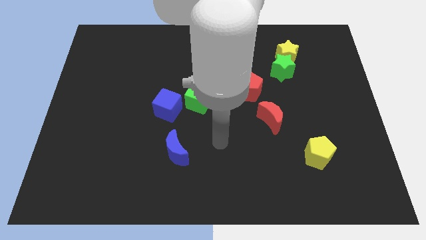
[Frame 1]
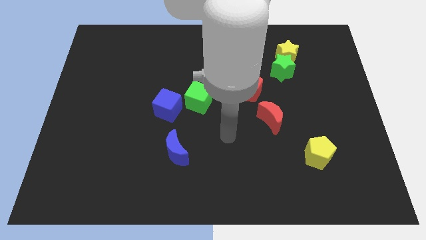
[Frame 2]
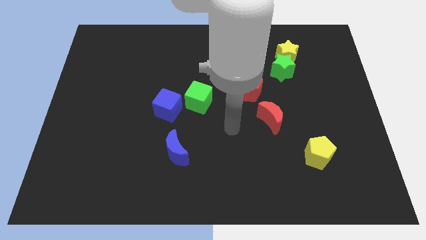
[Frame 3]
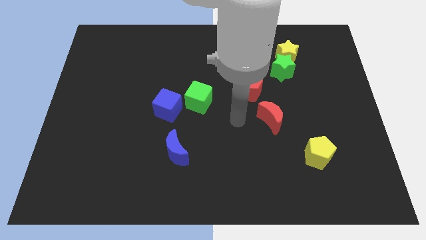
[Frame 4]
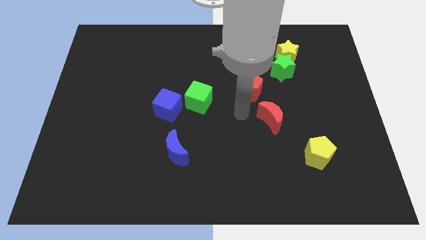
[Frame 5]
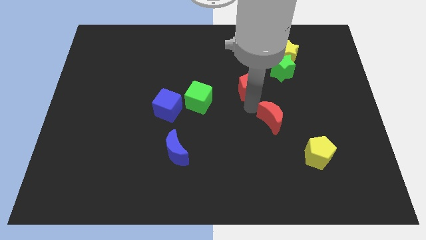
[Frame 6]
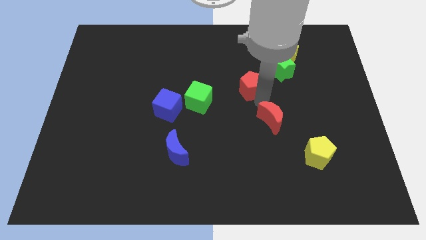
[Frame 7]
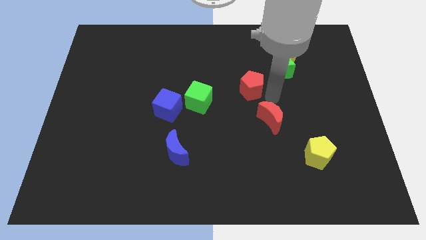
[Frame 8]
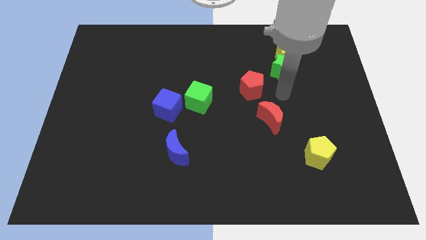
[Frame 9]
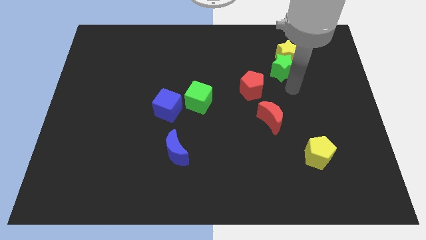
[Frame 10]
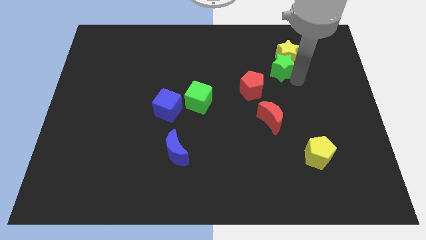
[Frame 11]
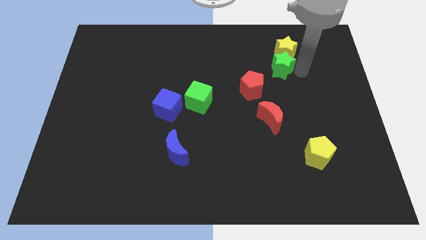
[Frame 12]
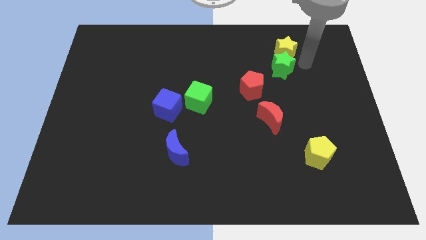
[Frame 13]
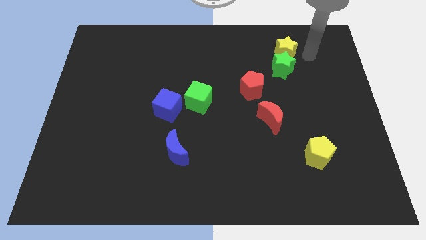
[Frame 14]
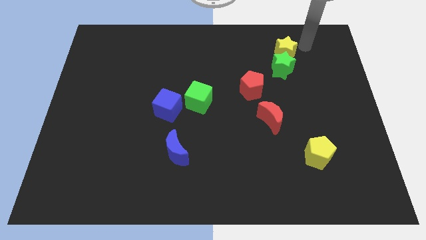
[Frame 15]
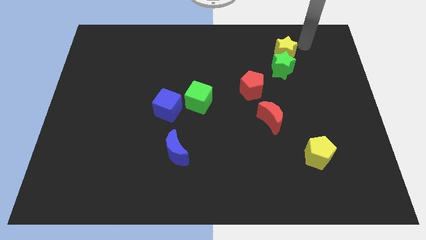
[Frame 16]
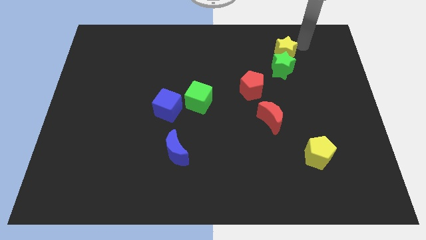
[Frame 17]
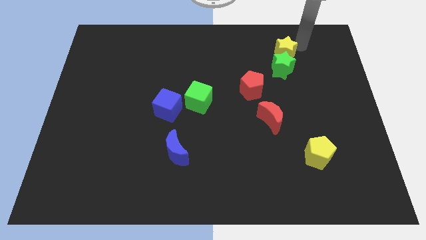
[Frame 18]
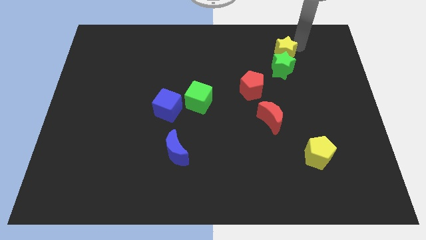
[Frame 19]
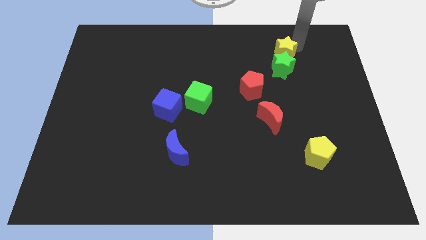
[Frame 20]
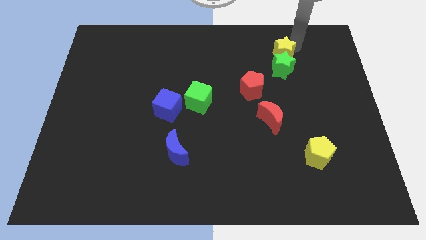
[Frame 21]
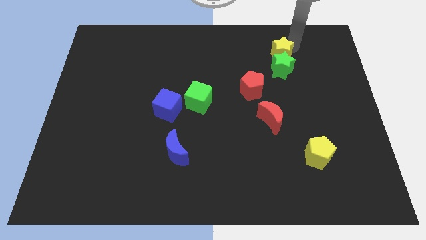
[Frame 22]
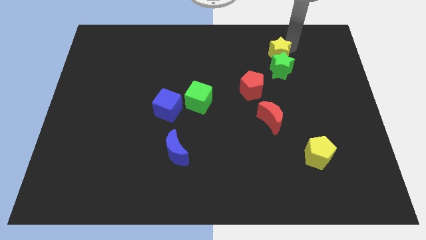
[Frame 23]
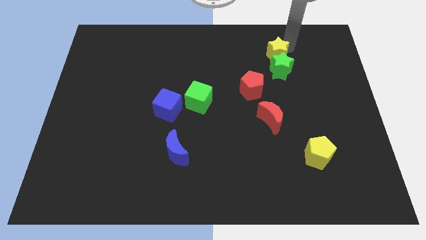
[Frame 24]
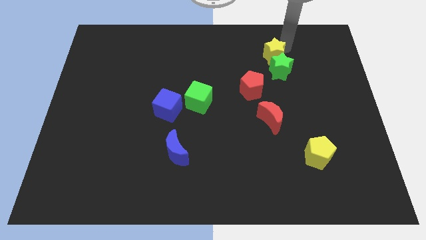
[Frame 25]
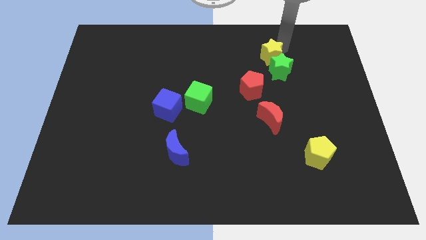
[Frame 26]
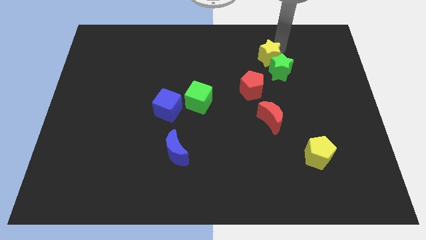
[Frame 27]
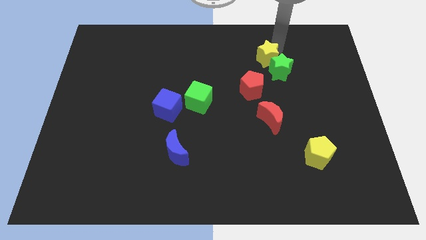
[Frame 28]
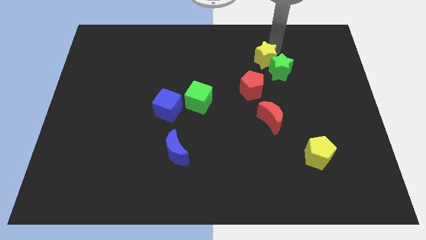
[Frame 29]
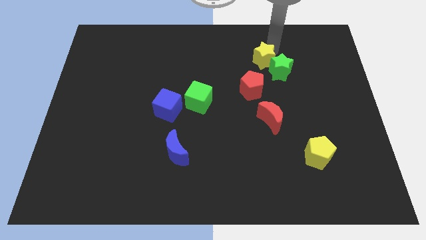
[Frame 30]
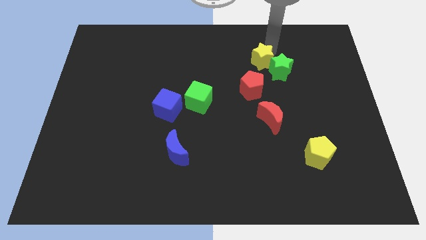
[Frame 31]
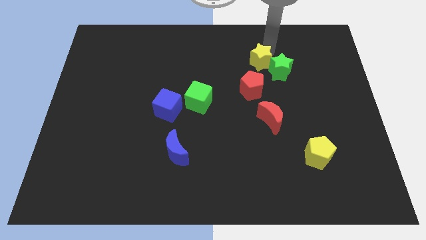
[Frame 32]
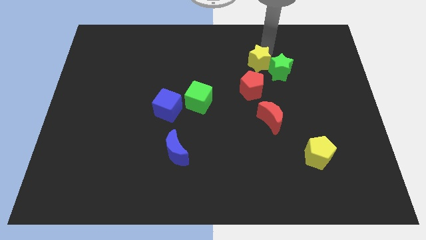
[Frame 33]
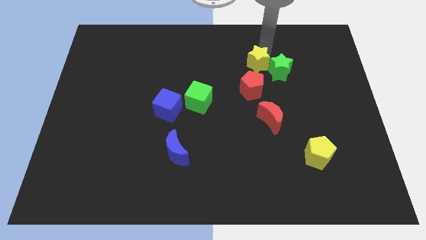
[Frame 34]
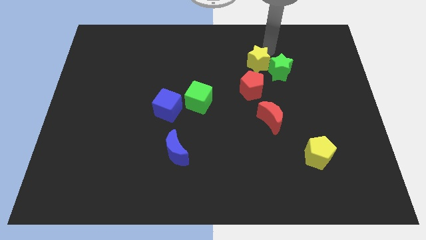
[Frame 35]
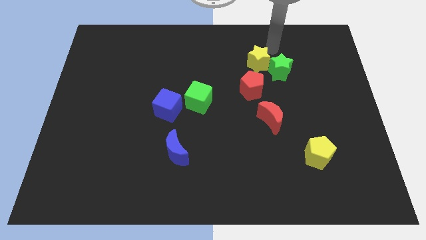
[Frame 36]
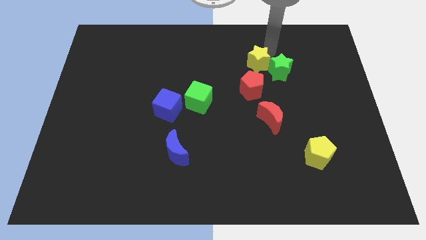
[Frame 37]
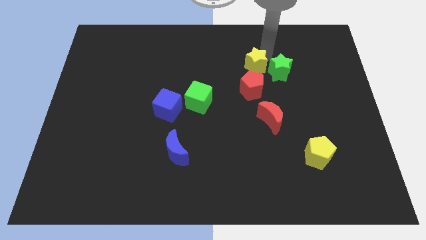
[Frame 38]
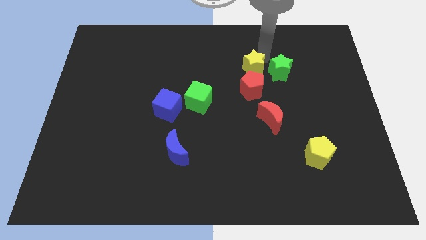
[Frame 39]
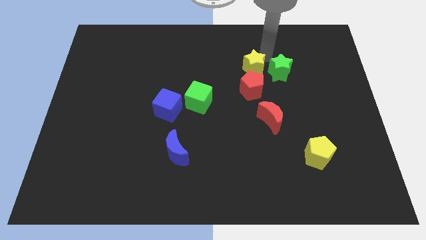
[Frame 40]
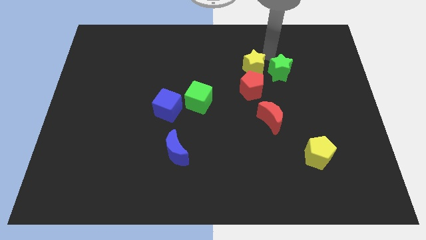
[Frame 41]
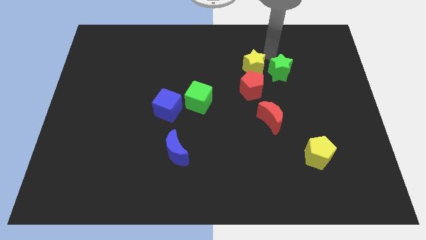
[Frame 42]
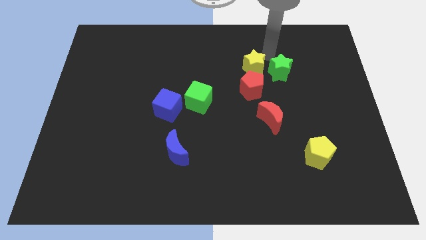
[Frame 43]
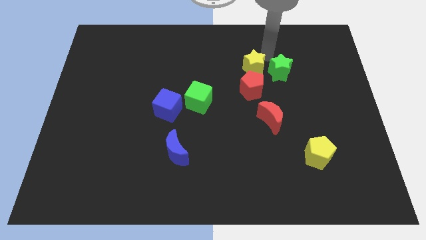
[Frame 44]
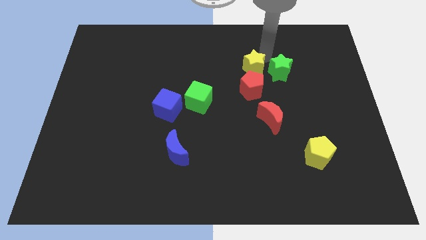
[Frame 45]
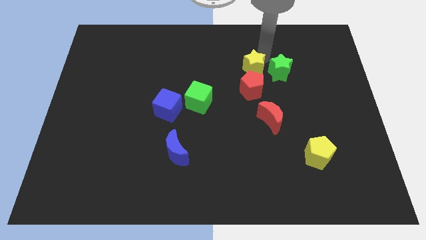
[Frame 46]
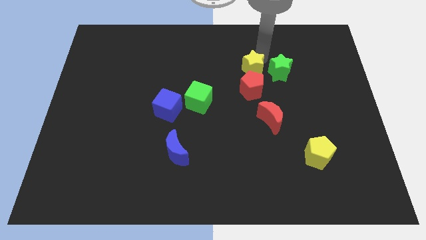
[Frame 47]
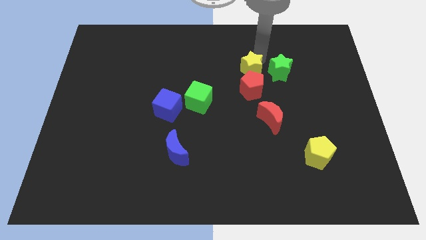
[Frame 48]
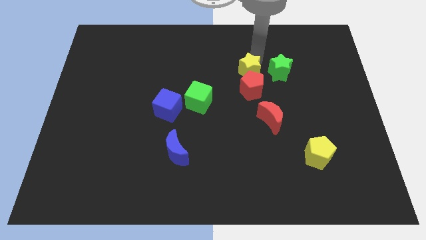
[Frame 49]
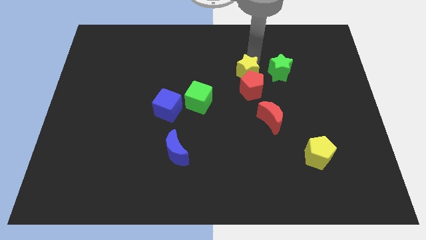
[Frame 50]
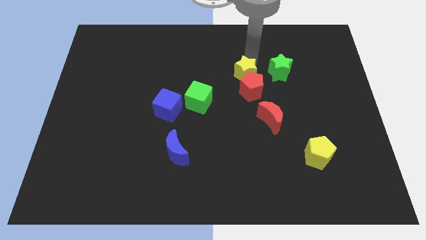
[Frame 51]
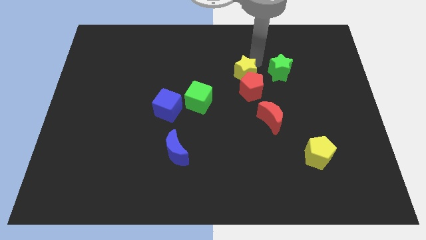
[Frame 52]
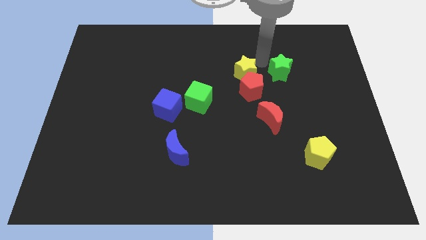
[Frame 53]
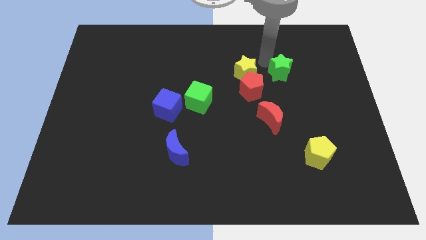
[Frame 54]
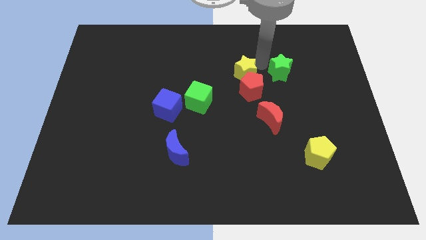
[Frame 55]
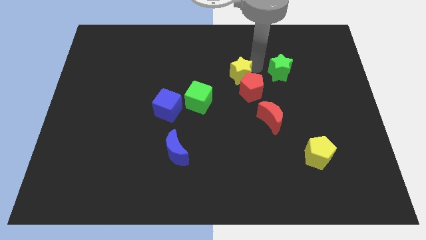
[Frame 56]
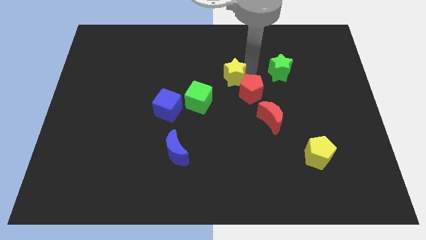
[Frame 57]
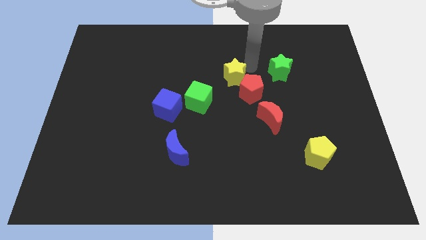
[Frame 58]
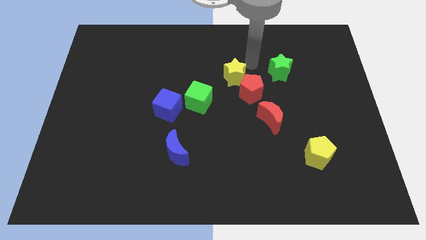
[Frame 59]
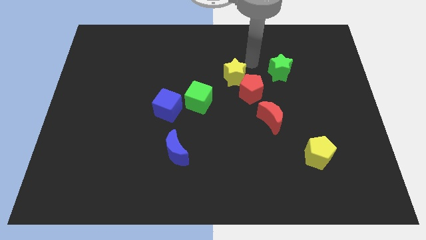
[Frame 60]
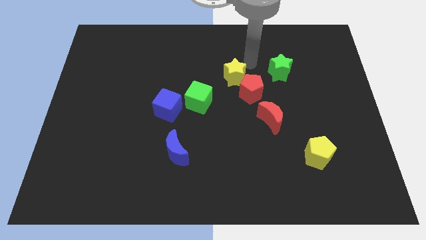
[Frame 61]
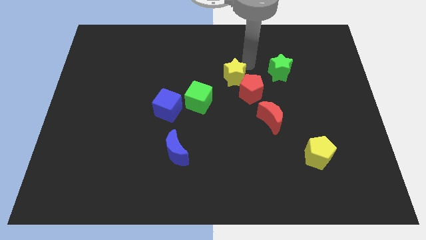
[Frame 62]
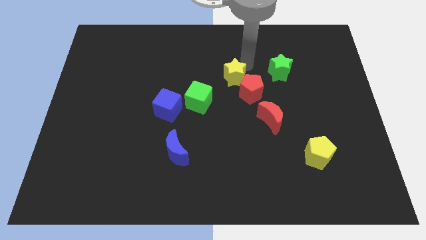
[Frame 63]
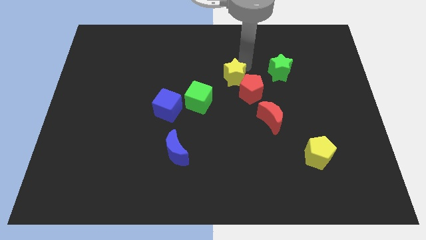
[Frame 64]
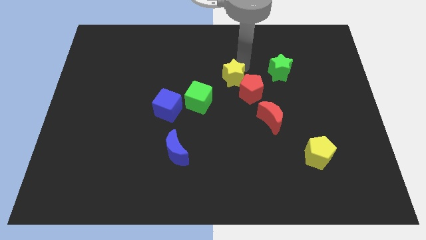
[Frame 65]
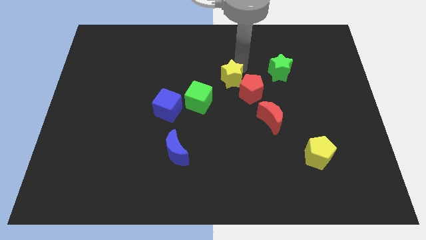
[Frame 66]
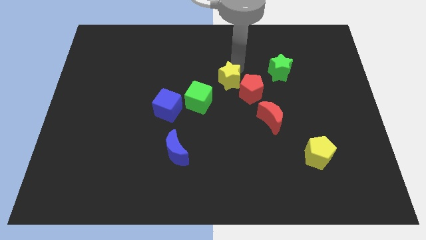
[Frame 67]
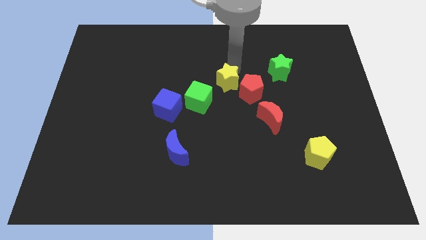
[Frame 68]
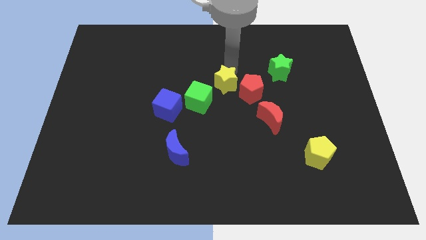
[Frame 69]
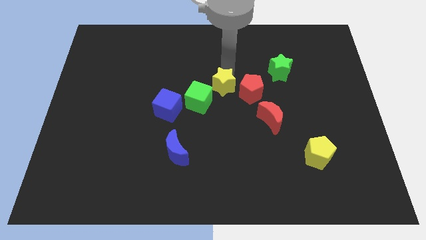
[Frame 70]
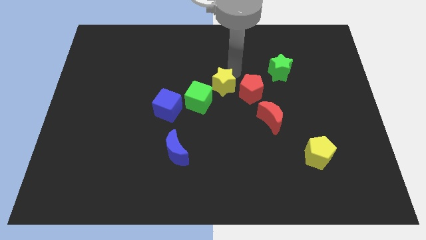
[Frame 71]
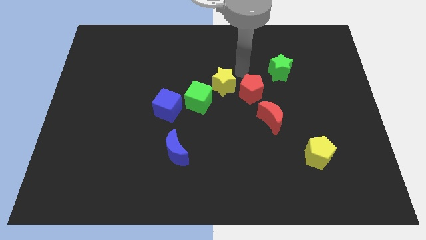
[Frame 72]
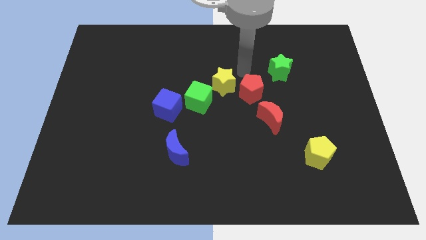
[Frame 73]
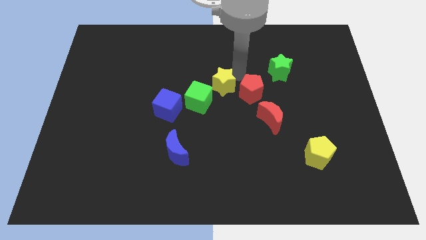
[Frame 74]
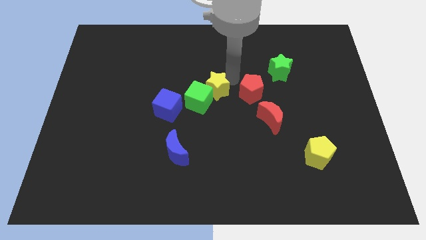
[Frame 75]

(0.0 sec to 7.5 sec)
slide the yellow star next to the green cube
